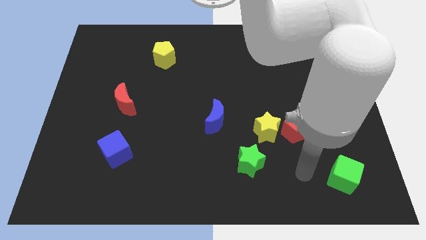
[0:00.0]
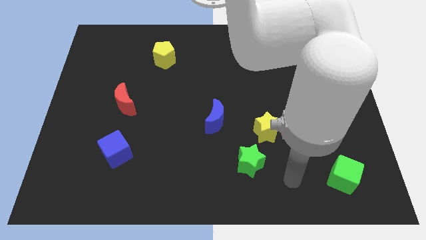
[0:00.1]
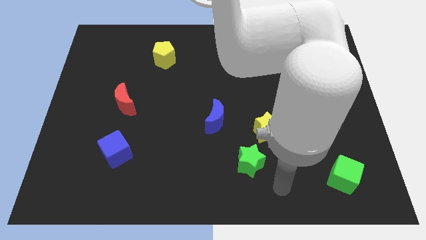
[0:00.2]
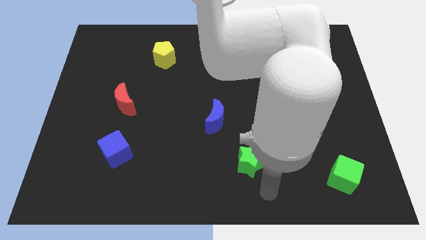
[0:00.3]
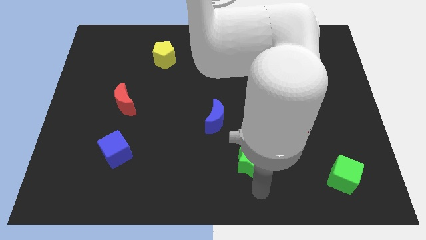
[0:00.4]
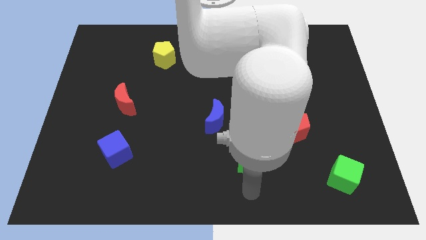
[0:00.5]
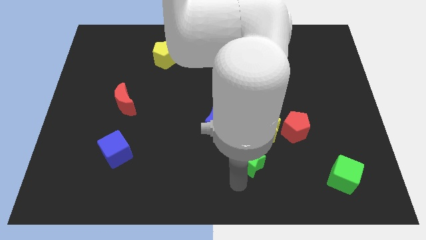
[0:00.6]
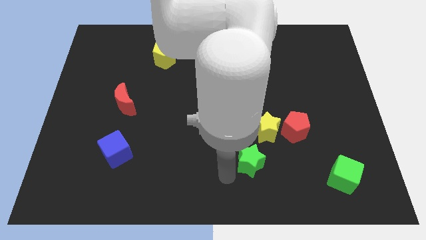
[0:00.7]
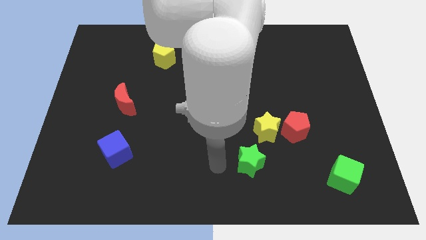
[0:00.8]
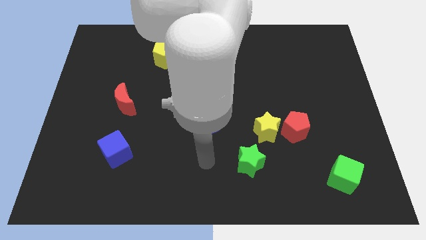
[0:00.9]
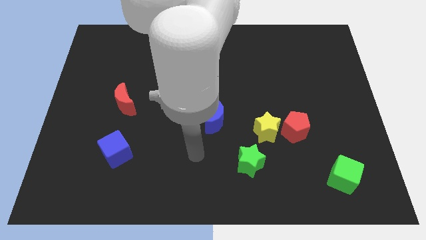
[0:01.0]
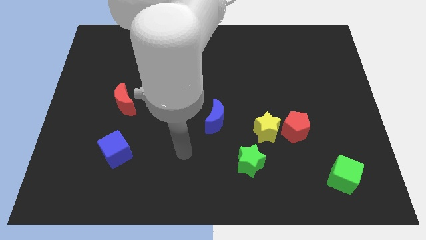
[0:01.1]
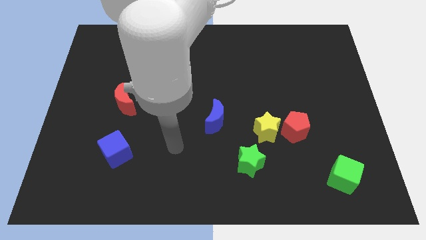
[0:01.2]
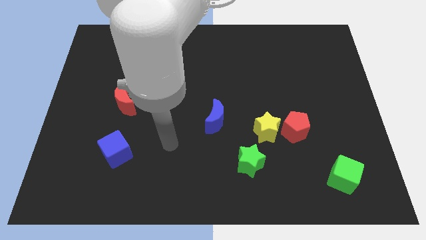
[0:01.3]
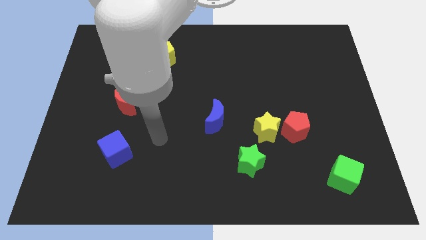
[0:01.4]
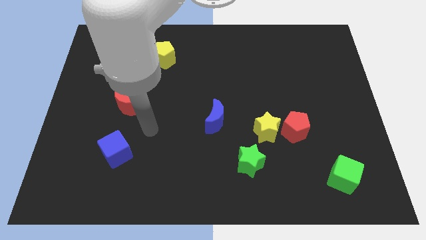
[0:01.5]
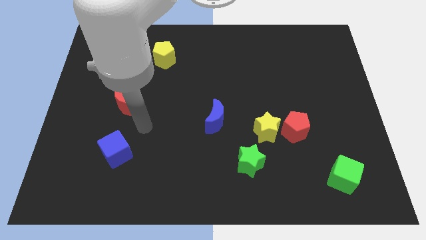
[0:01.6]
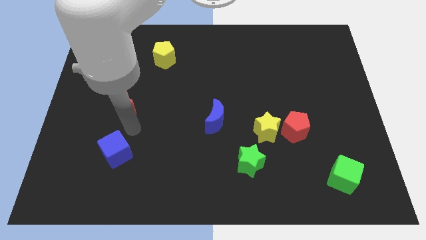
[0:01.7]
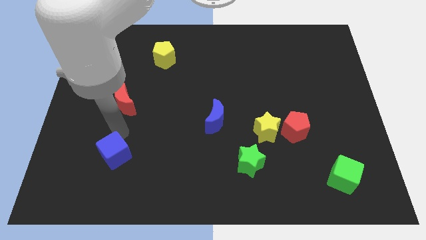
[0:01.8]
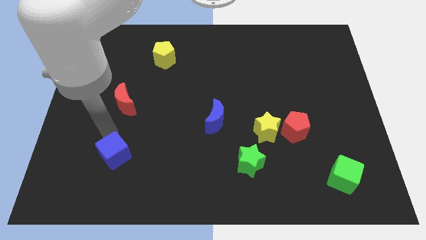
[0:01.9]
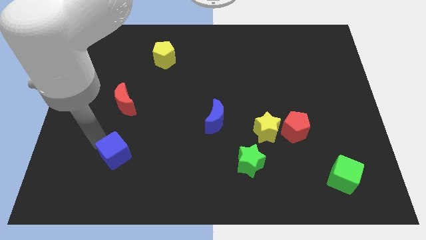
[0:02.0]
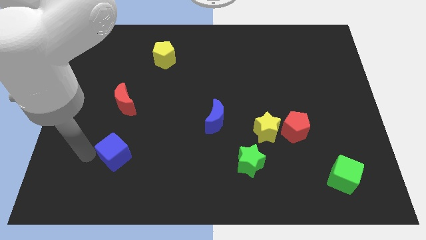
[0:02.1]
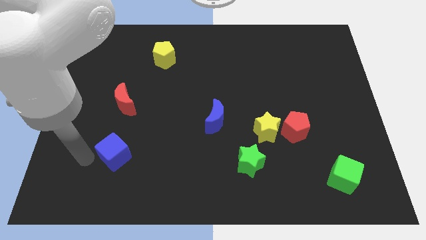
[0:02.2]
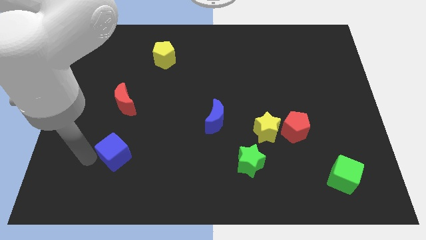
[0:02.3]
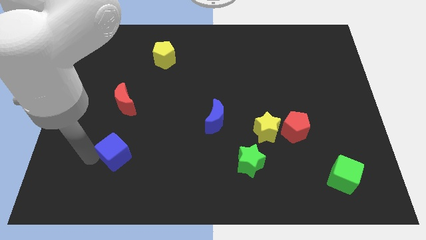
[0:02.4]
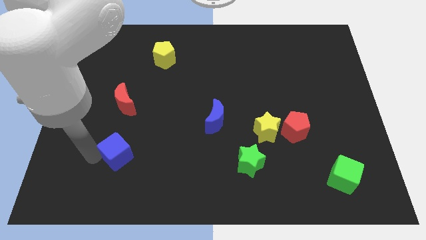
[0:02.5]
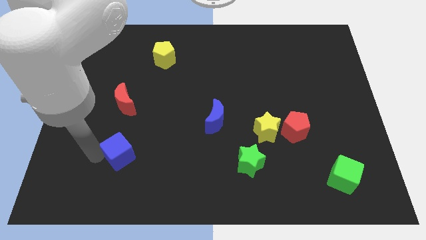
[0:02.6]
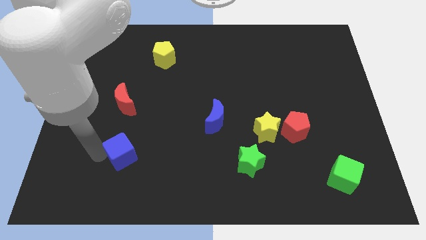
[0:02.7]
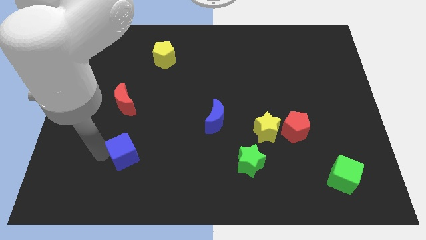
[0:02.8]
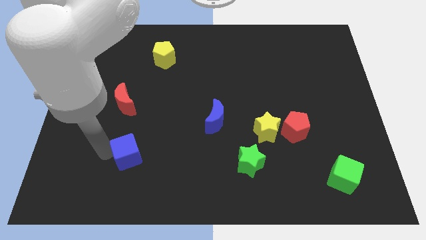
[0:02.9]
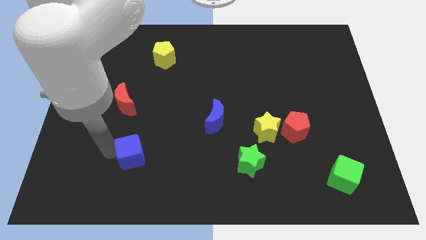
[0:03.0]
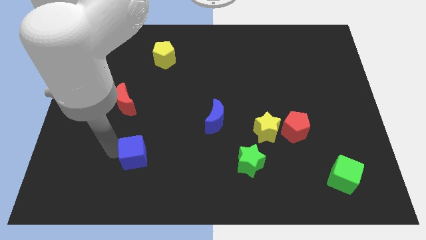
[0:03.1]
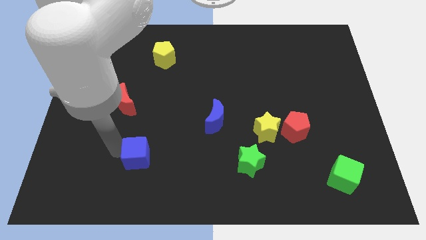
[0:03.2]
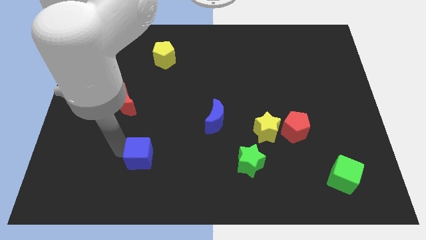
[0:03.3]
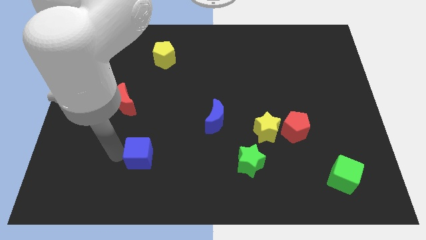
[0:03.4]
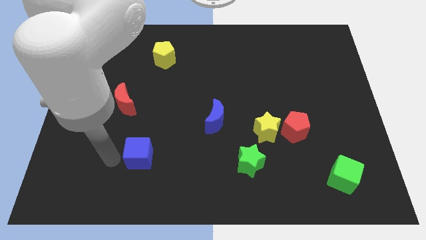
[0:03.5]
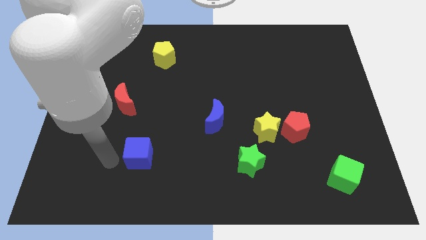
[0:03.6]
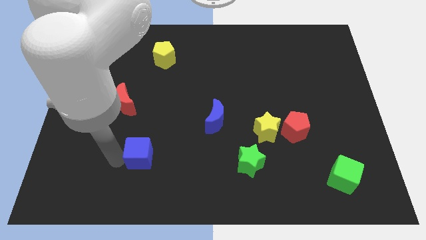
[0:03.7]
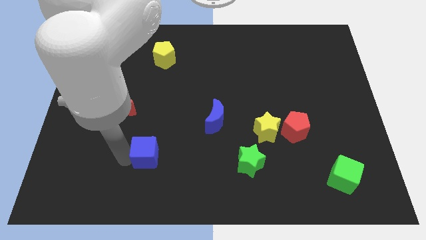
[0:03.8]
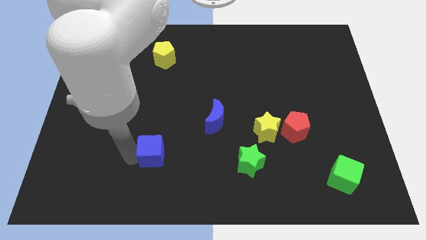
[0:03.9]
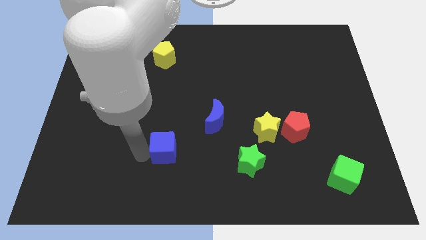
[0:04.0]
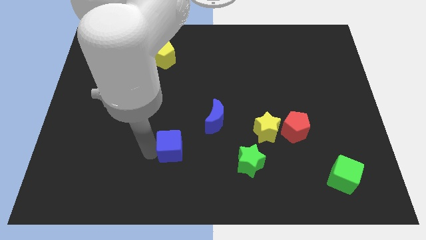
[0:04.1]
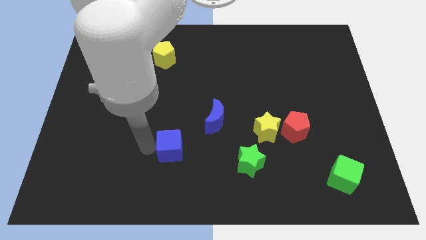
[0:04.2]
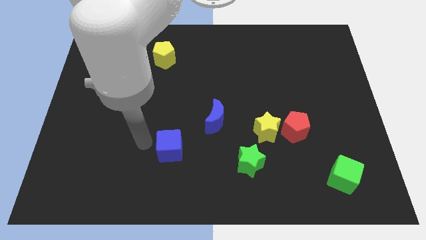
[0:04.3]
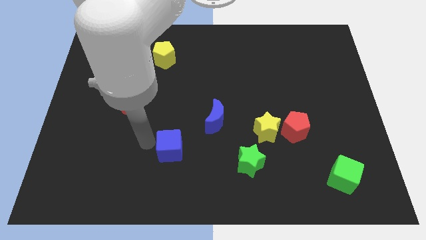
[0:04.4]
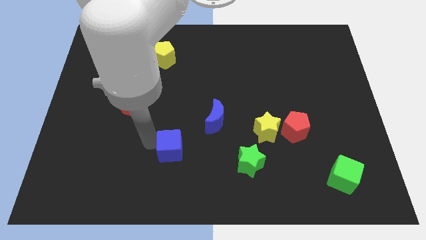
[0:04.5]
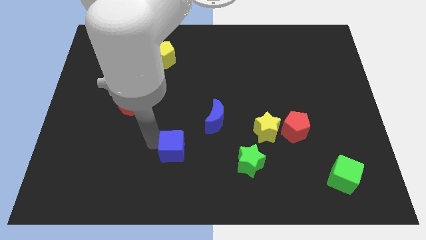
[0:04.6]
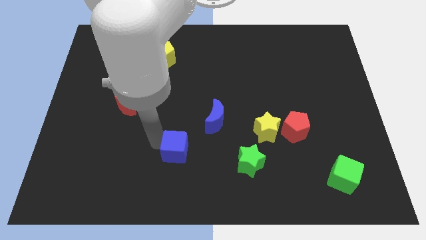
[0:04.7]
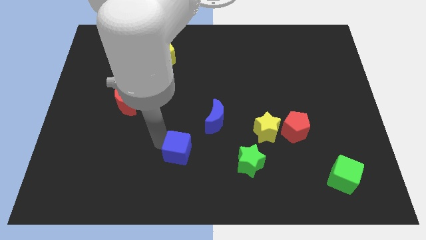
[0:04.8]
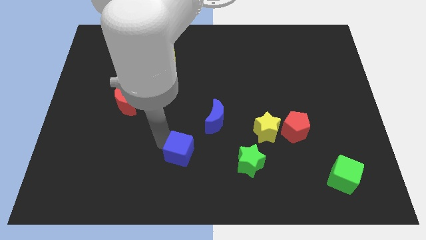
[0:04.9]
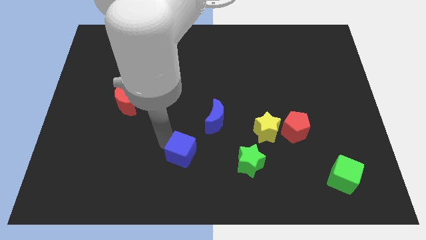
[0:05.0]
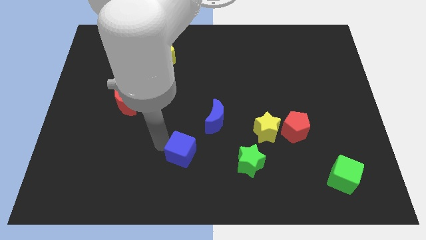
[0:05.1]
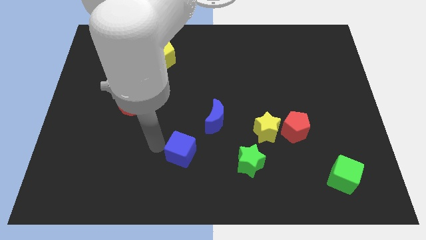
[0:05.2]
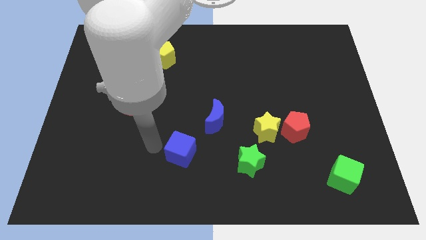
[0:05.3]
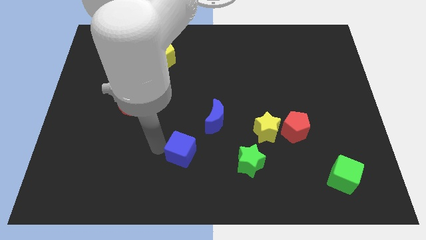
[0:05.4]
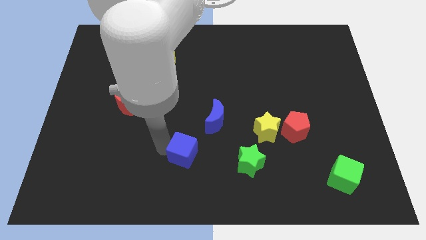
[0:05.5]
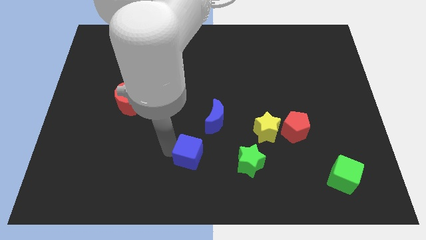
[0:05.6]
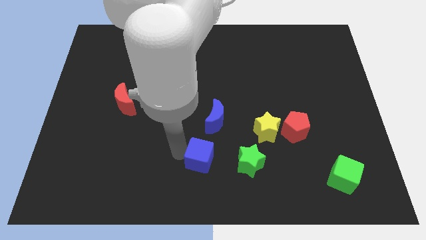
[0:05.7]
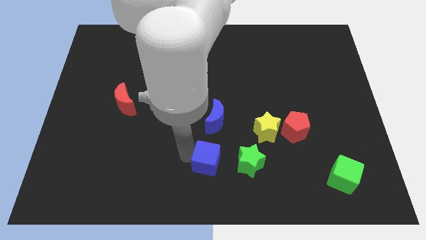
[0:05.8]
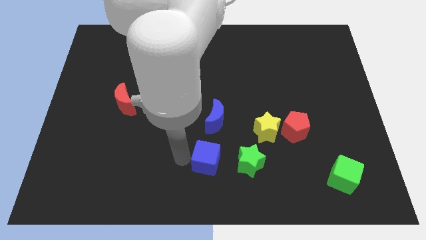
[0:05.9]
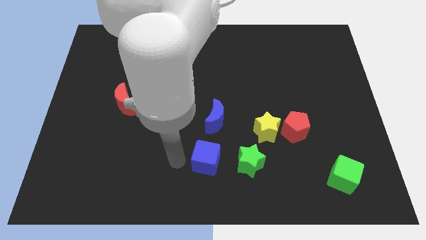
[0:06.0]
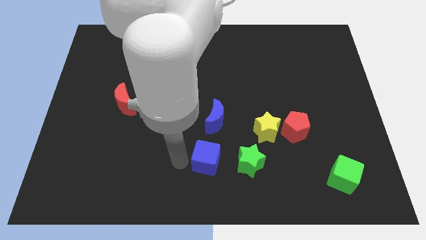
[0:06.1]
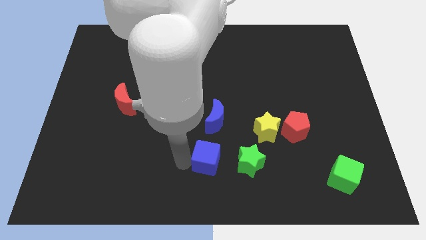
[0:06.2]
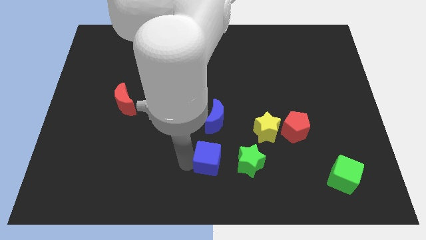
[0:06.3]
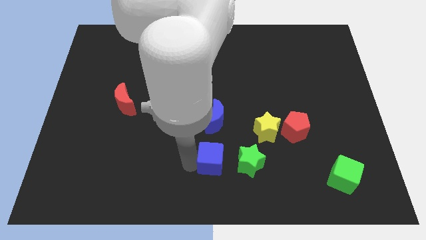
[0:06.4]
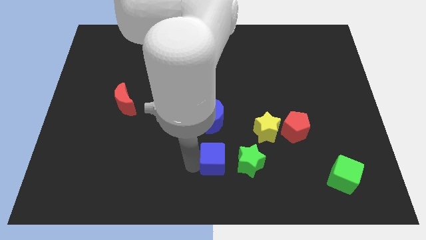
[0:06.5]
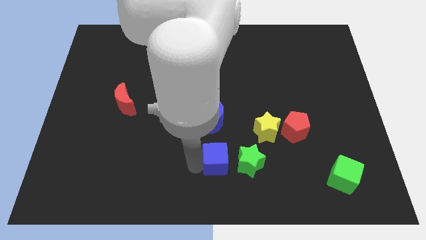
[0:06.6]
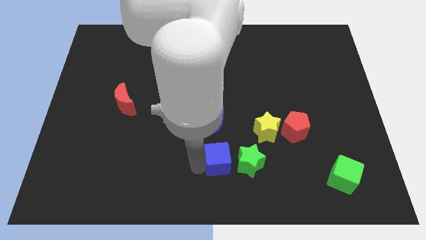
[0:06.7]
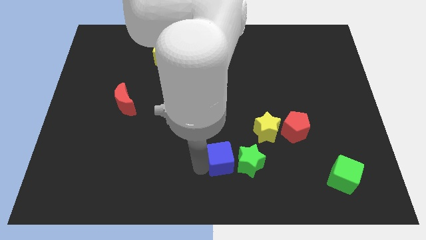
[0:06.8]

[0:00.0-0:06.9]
push the blue cube towards the green star

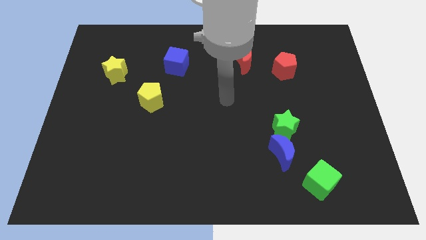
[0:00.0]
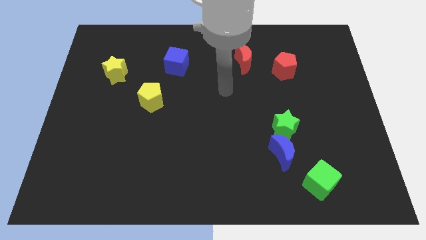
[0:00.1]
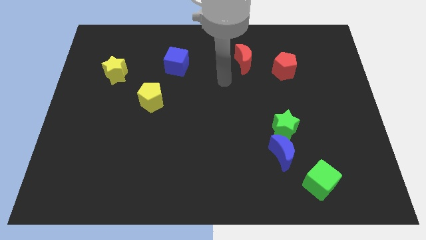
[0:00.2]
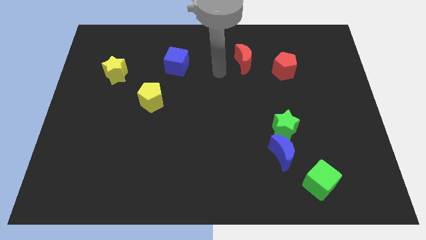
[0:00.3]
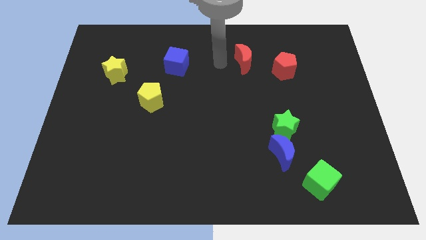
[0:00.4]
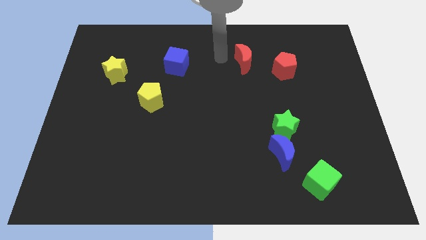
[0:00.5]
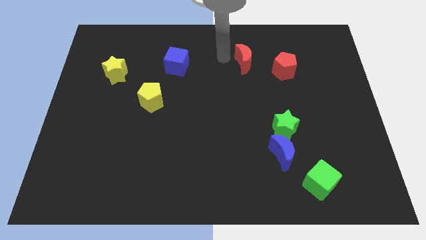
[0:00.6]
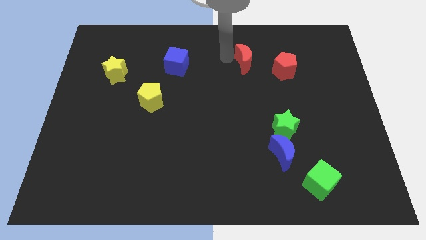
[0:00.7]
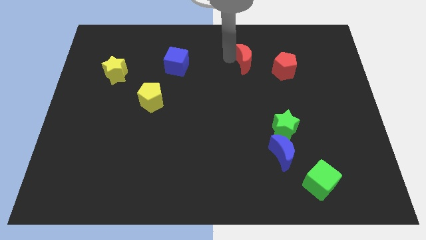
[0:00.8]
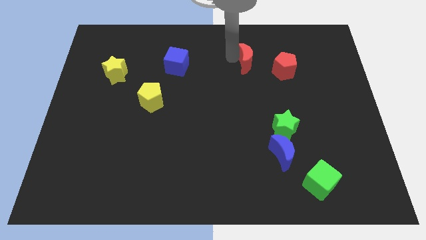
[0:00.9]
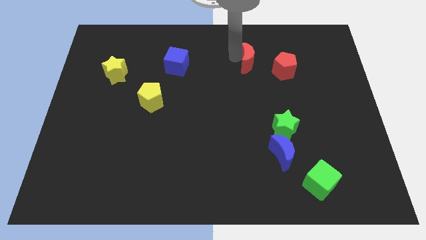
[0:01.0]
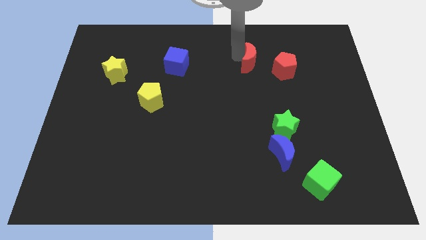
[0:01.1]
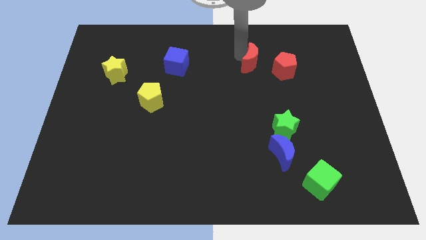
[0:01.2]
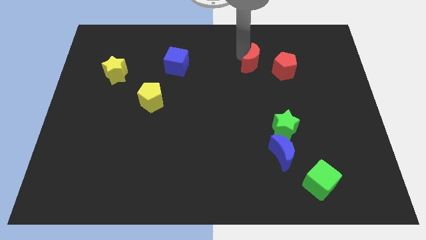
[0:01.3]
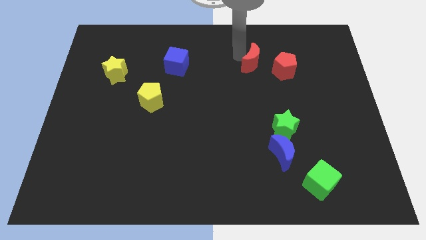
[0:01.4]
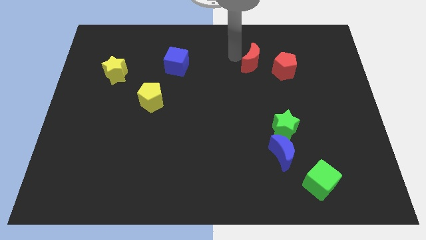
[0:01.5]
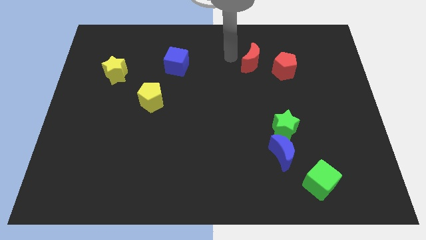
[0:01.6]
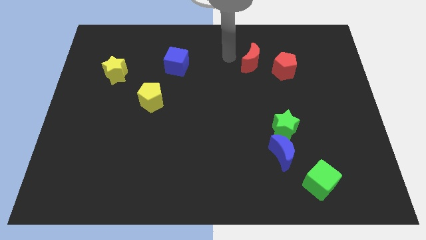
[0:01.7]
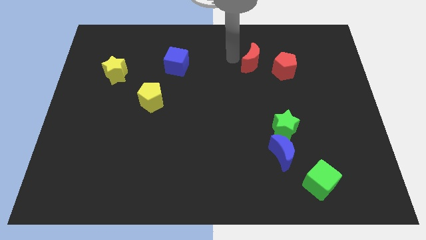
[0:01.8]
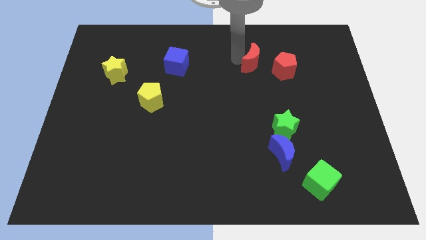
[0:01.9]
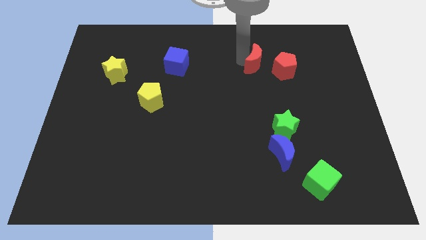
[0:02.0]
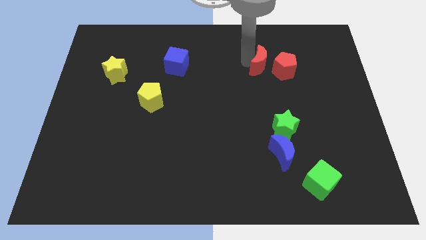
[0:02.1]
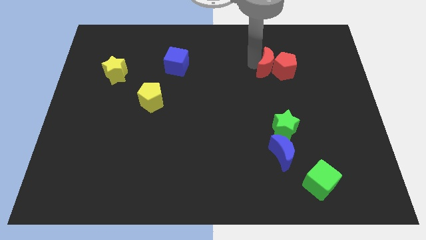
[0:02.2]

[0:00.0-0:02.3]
move the red moon towards the red pentagon
